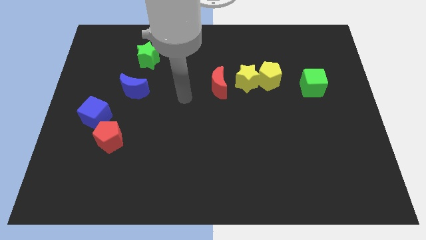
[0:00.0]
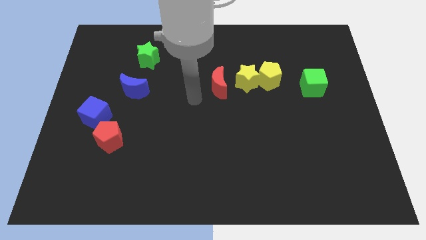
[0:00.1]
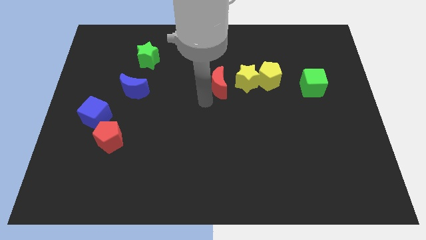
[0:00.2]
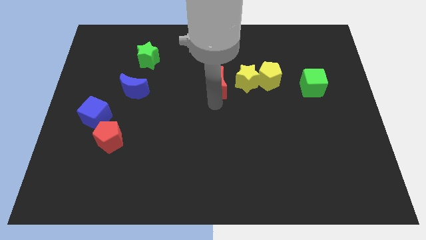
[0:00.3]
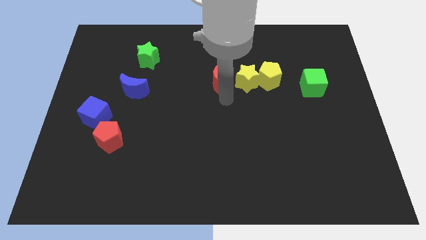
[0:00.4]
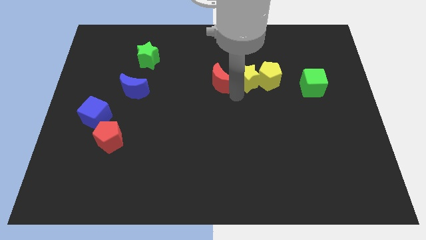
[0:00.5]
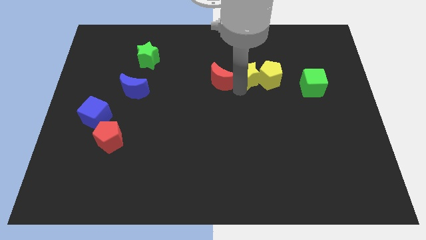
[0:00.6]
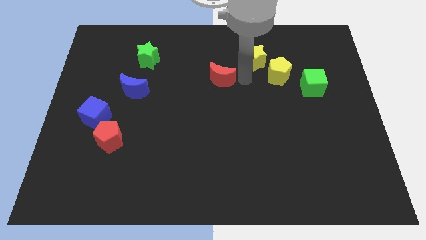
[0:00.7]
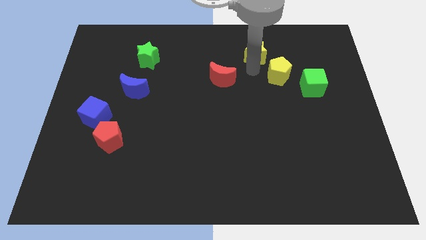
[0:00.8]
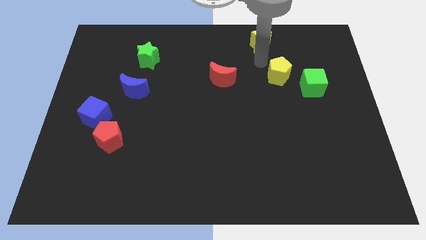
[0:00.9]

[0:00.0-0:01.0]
separate the yellow pentagon from the yellow star

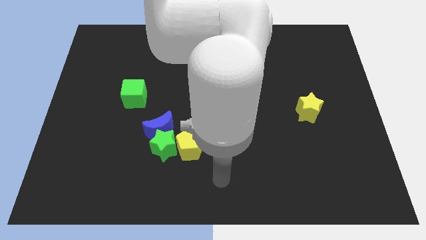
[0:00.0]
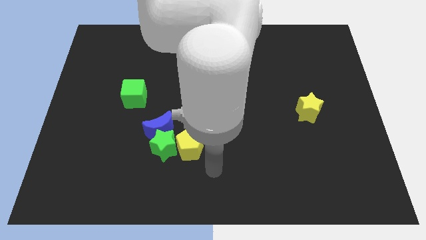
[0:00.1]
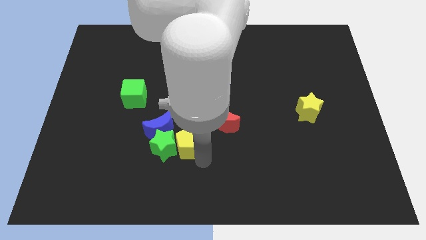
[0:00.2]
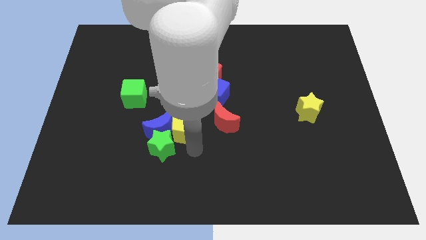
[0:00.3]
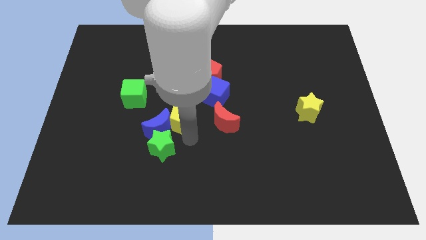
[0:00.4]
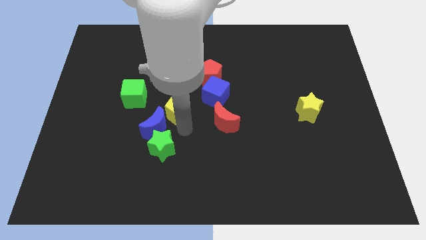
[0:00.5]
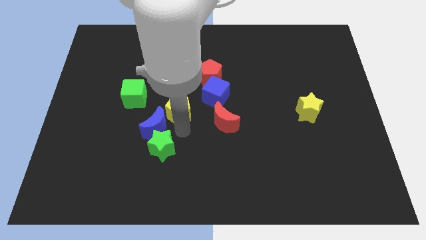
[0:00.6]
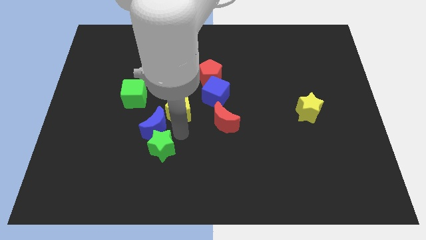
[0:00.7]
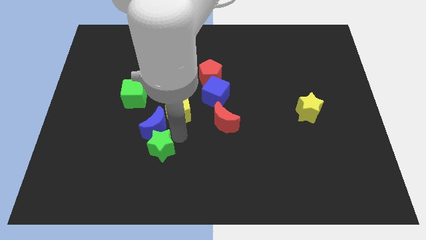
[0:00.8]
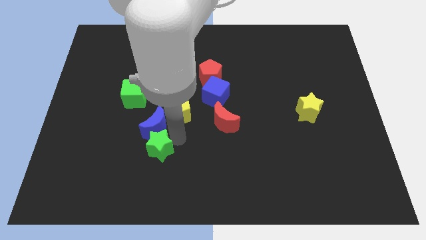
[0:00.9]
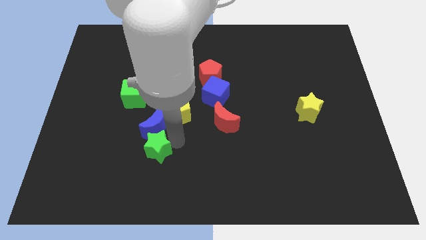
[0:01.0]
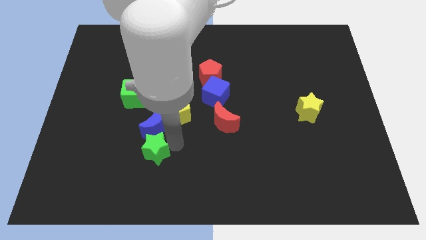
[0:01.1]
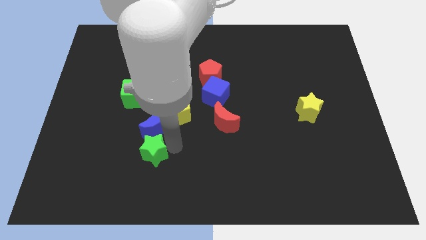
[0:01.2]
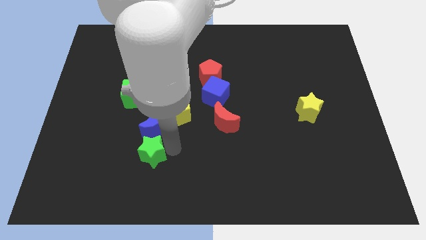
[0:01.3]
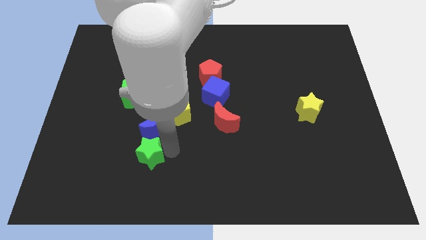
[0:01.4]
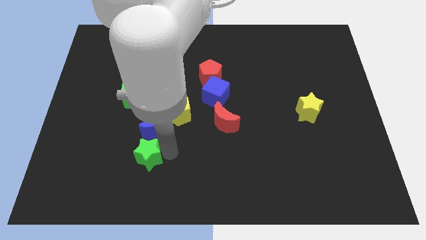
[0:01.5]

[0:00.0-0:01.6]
separate the green star from the blue moon and yellow pentagon

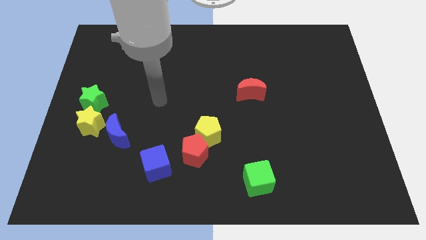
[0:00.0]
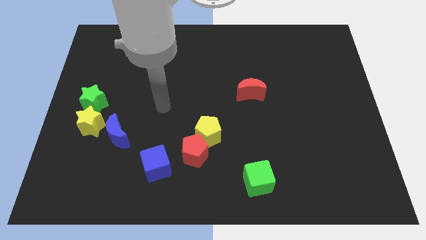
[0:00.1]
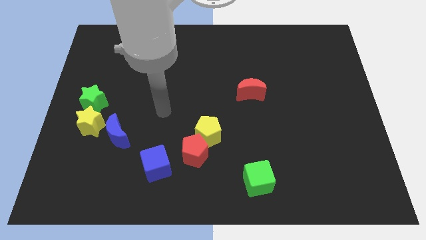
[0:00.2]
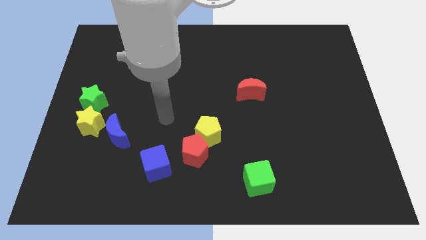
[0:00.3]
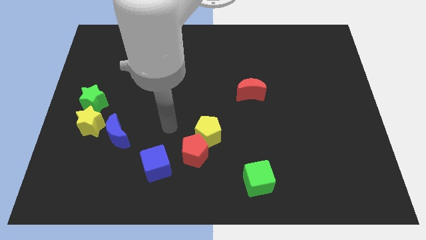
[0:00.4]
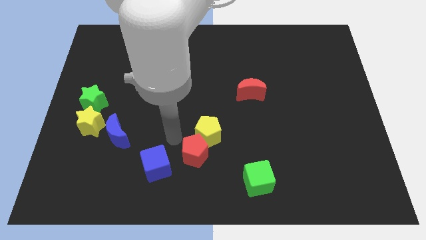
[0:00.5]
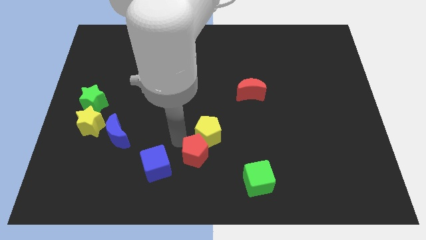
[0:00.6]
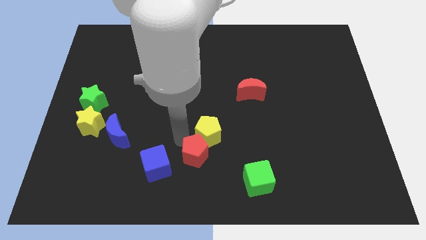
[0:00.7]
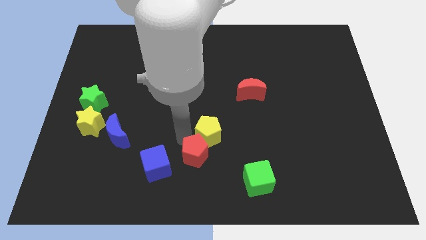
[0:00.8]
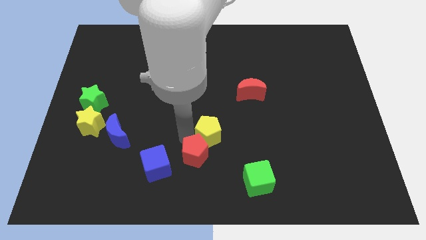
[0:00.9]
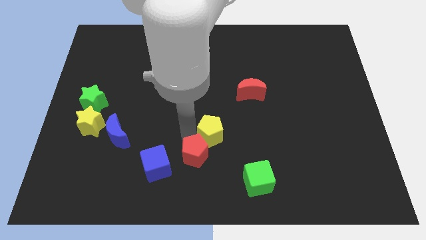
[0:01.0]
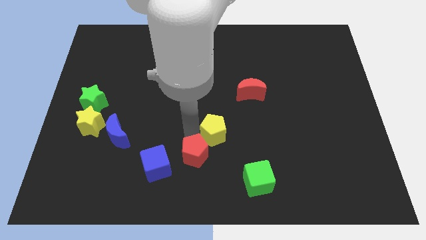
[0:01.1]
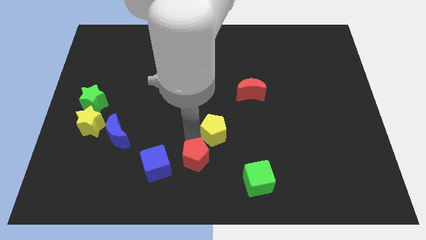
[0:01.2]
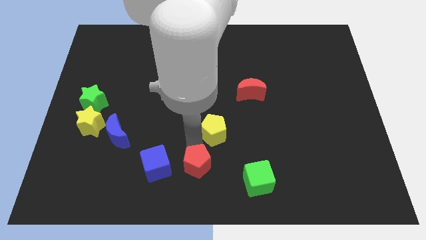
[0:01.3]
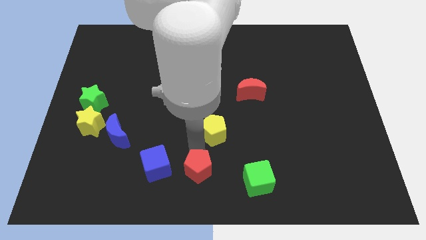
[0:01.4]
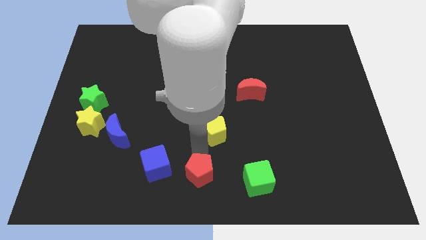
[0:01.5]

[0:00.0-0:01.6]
pull the yellow pentagon apart from the red pentagon

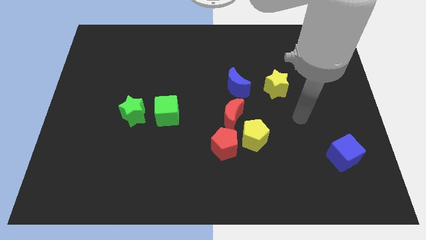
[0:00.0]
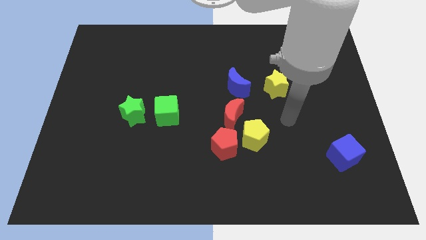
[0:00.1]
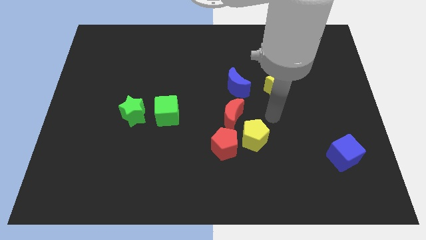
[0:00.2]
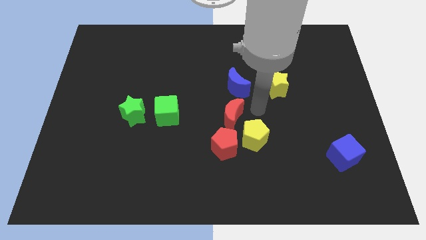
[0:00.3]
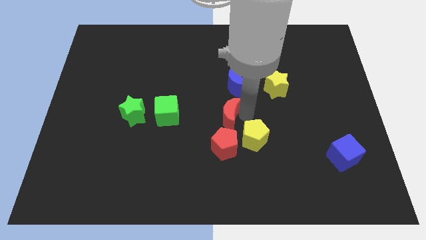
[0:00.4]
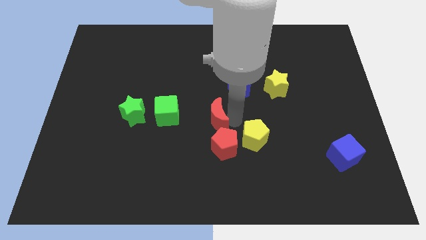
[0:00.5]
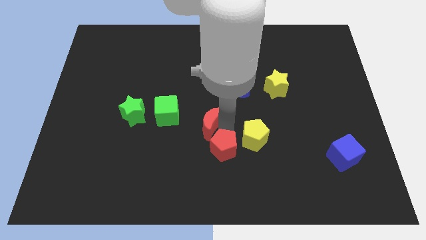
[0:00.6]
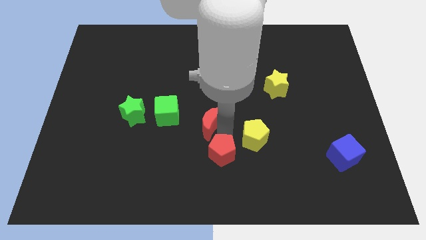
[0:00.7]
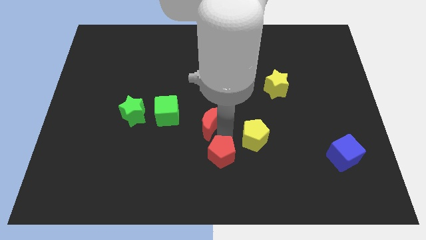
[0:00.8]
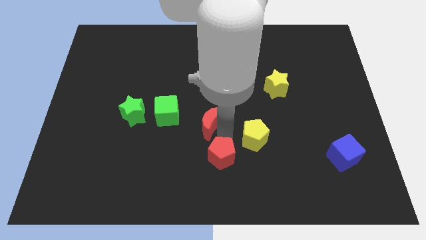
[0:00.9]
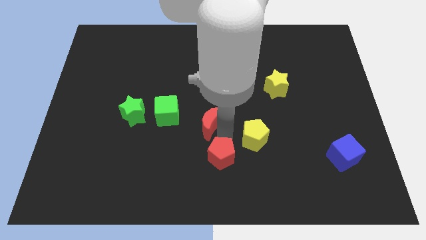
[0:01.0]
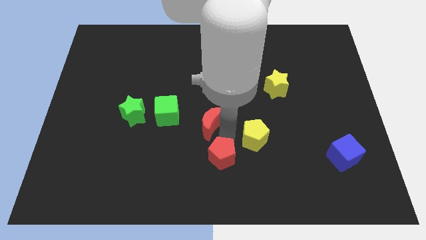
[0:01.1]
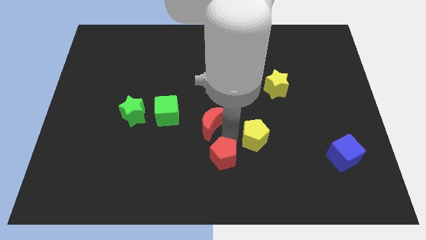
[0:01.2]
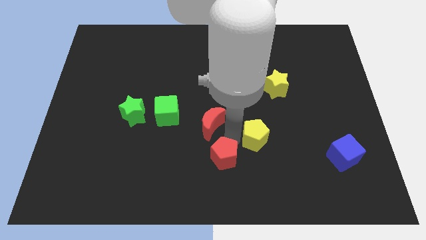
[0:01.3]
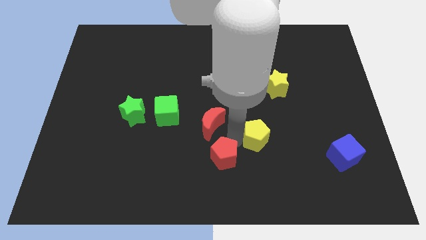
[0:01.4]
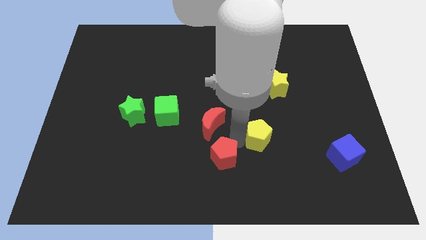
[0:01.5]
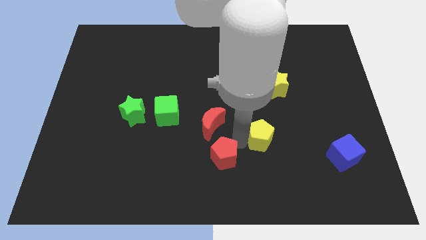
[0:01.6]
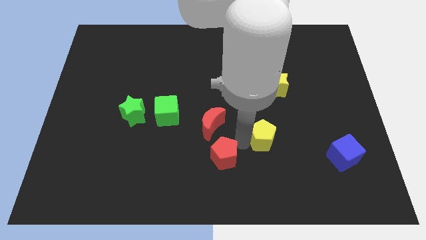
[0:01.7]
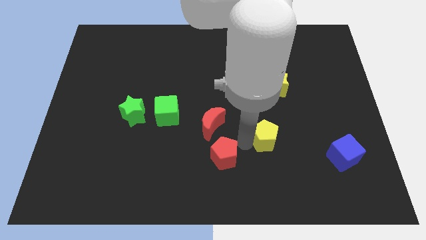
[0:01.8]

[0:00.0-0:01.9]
move the yellow pentagon away from the red pentagon and red moon

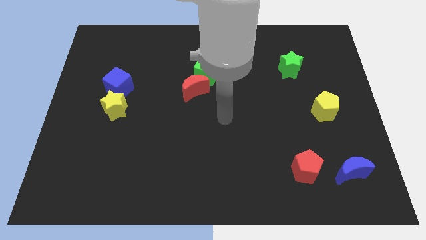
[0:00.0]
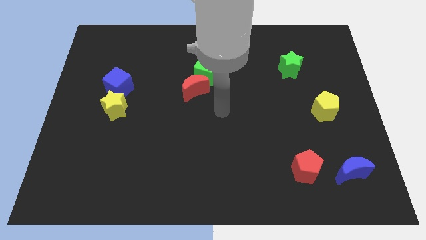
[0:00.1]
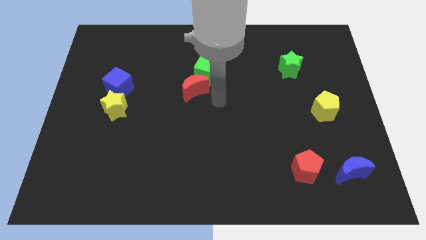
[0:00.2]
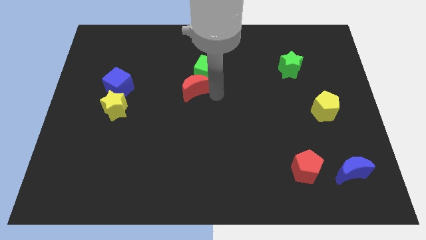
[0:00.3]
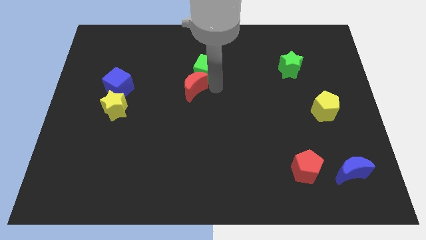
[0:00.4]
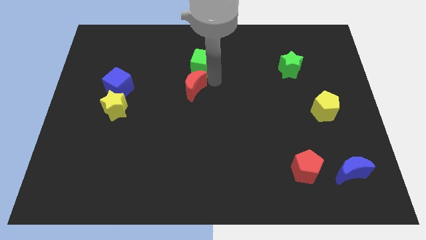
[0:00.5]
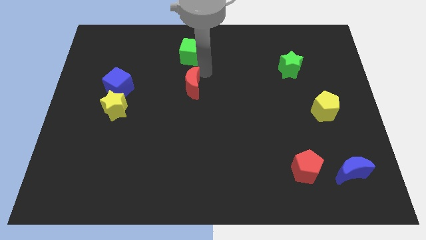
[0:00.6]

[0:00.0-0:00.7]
pull the red moon apart from the green cube

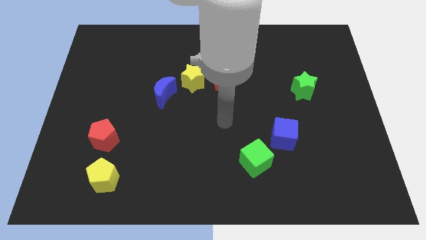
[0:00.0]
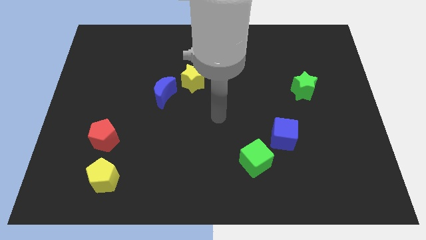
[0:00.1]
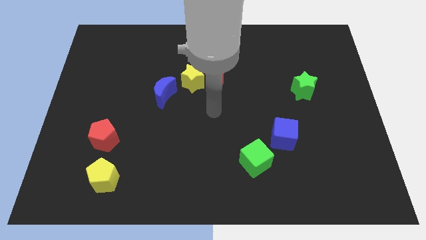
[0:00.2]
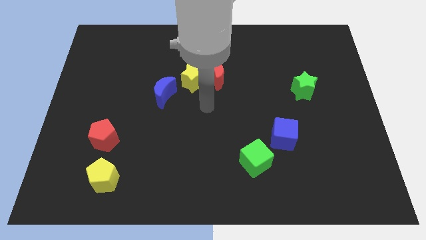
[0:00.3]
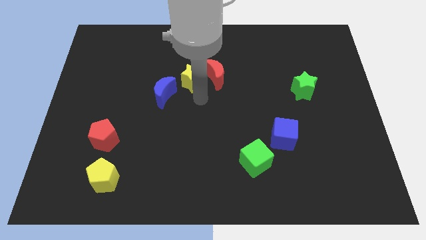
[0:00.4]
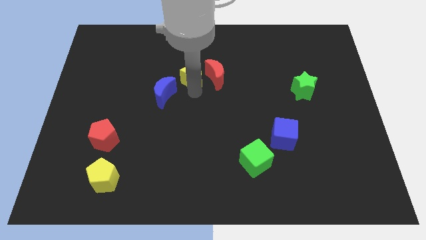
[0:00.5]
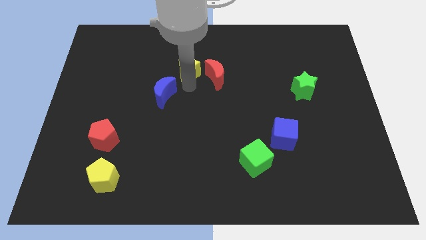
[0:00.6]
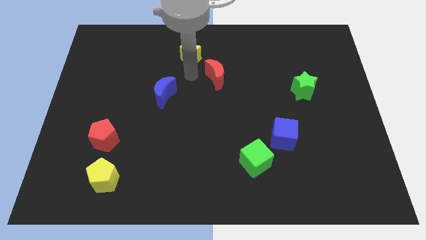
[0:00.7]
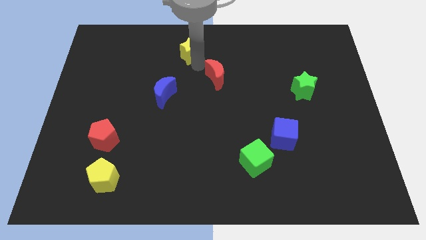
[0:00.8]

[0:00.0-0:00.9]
move the red moon away from the yellow star

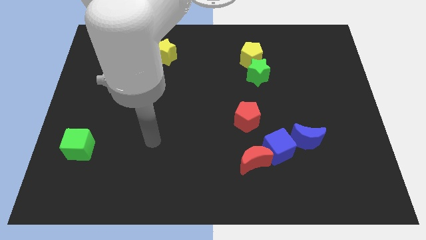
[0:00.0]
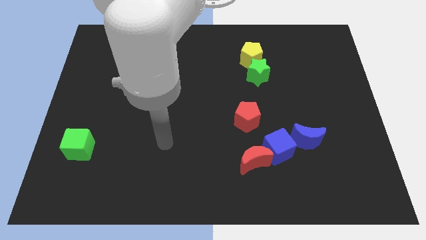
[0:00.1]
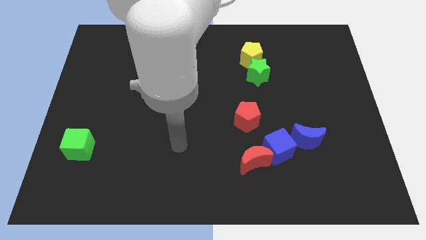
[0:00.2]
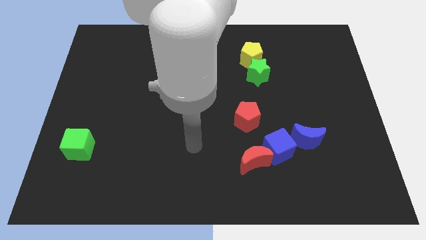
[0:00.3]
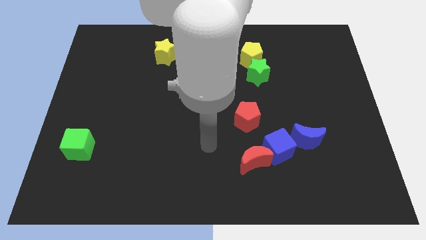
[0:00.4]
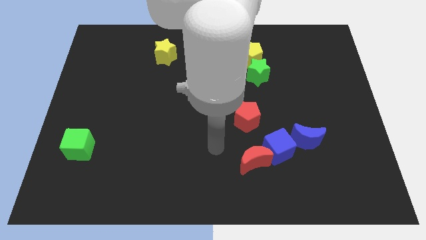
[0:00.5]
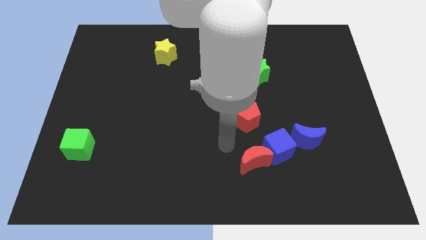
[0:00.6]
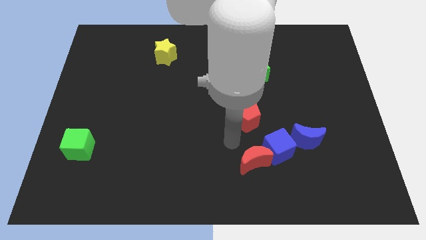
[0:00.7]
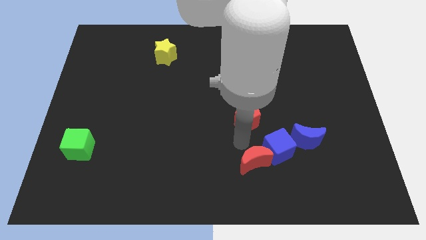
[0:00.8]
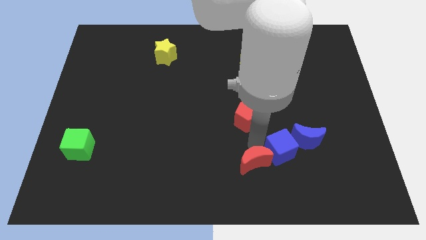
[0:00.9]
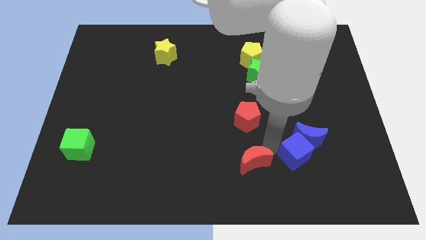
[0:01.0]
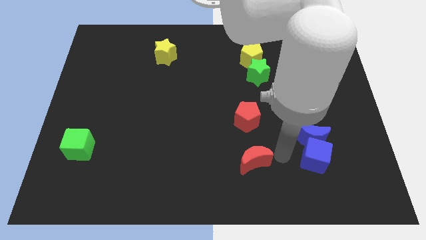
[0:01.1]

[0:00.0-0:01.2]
separate the red moon from the blue cube

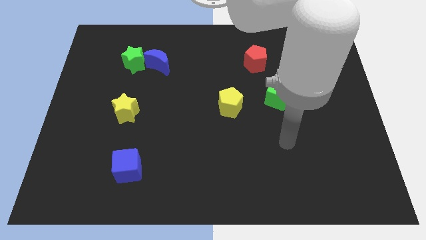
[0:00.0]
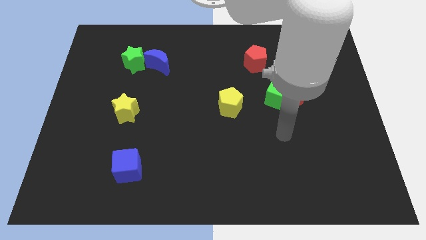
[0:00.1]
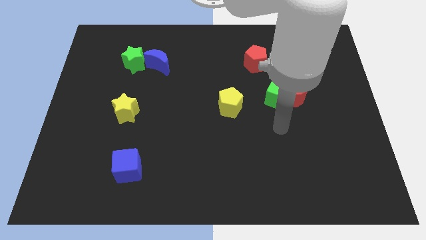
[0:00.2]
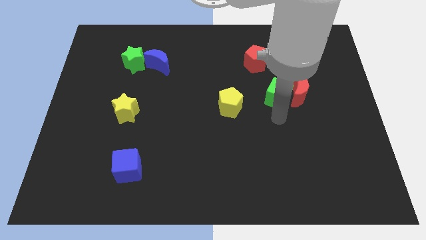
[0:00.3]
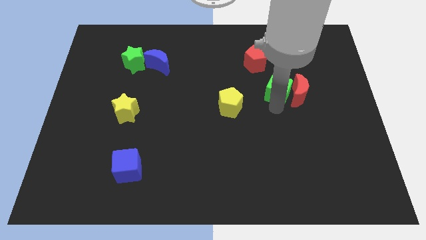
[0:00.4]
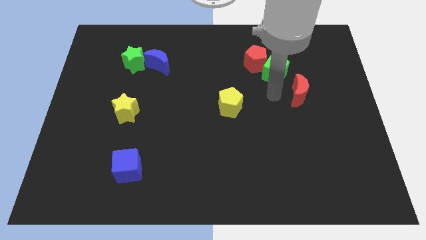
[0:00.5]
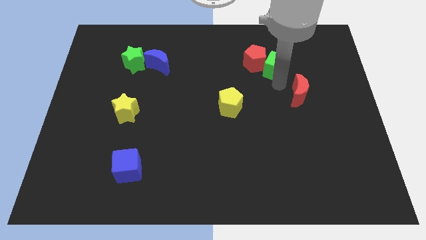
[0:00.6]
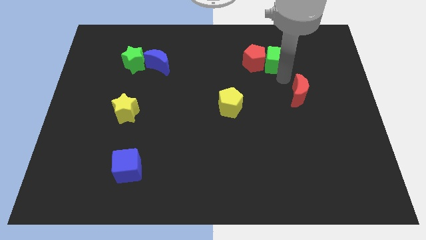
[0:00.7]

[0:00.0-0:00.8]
separate the red moon from the green cube
